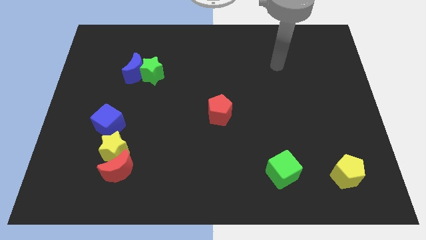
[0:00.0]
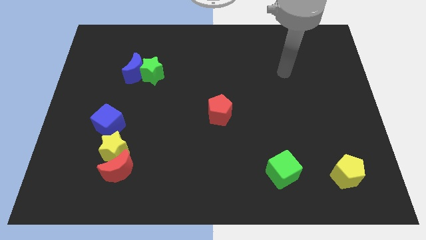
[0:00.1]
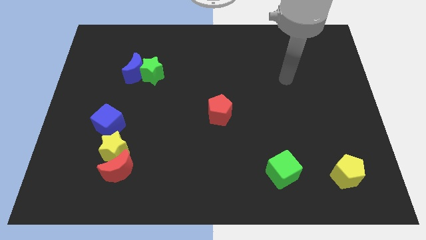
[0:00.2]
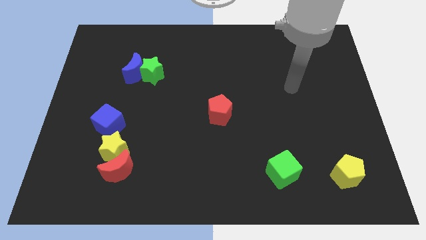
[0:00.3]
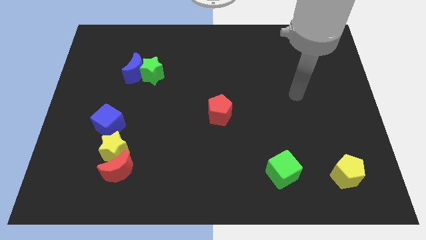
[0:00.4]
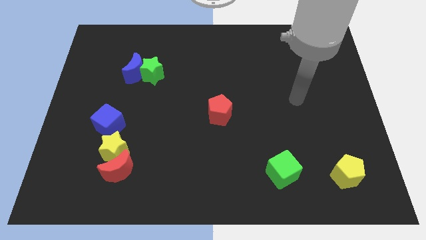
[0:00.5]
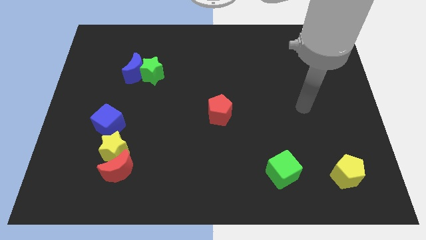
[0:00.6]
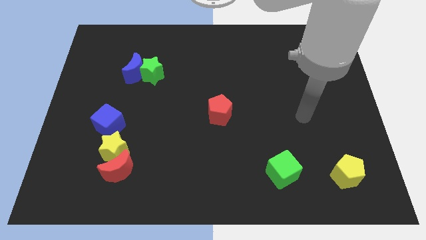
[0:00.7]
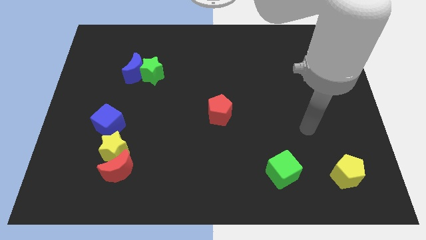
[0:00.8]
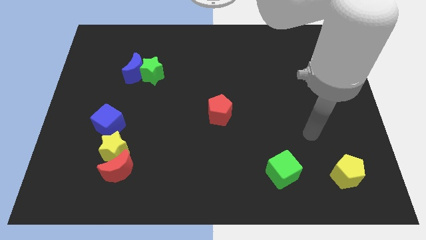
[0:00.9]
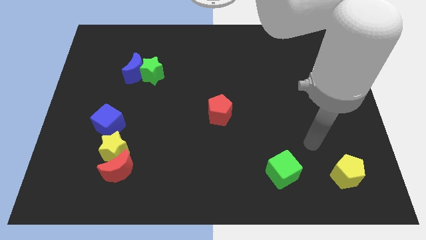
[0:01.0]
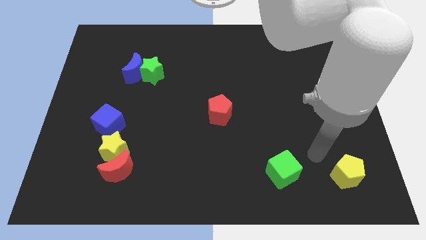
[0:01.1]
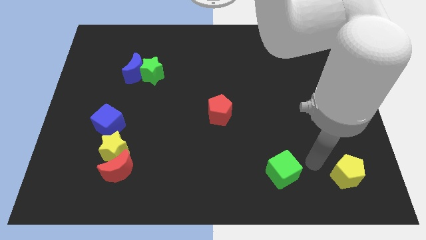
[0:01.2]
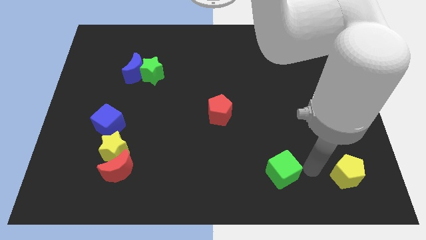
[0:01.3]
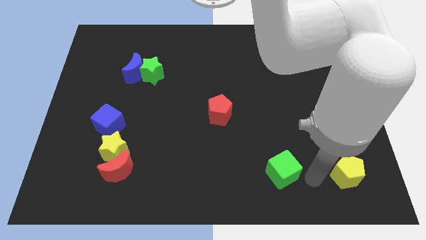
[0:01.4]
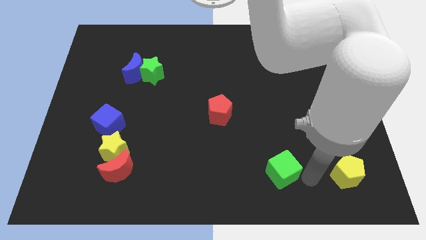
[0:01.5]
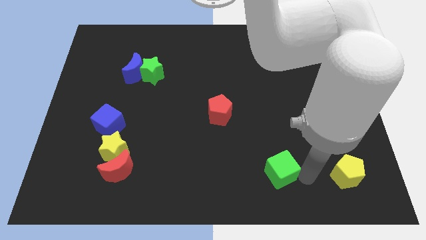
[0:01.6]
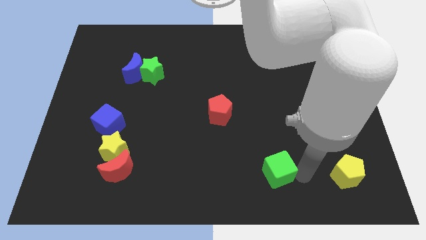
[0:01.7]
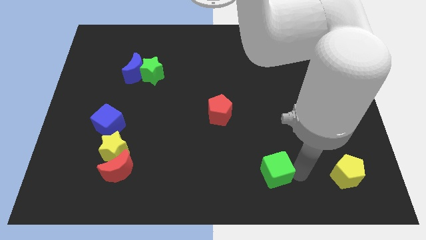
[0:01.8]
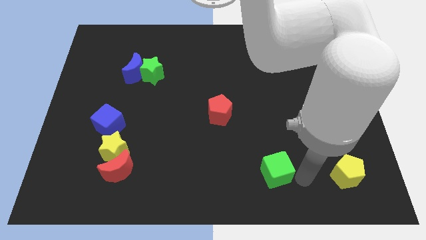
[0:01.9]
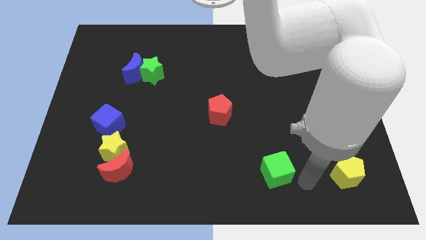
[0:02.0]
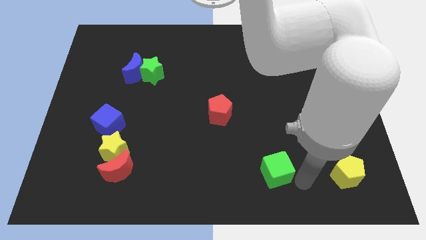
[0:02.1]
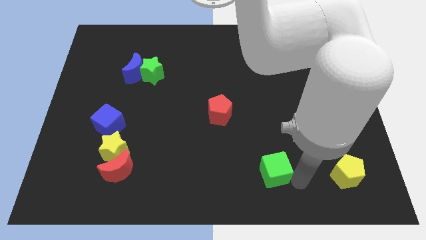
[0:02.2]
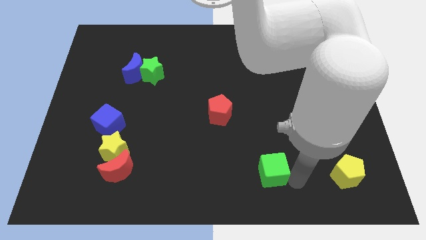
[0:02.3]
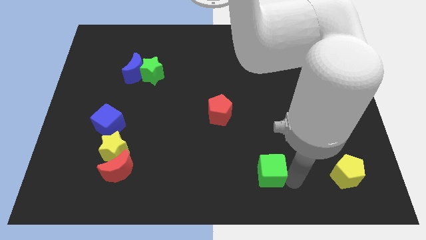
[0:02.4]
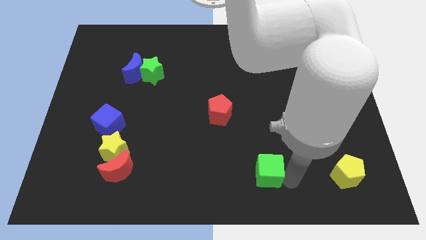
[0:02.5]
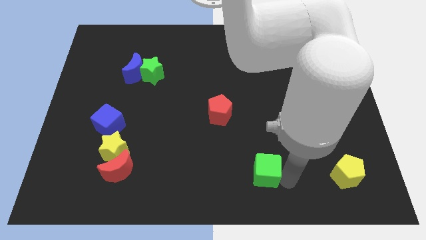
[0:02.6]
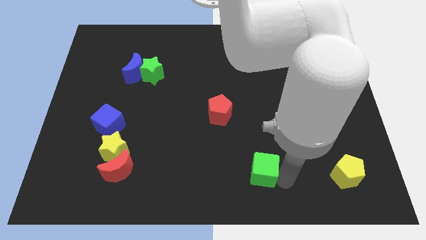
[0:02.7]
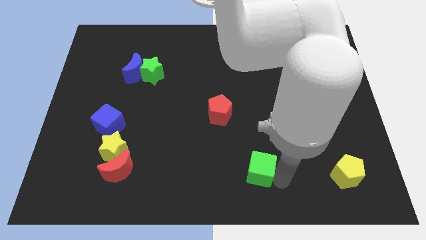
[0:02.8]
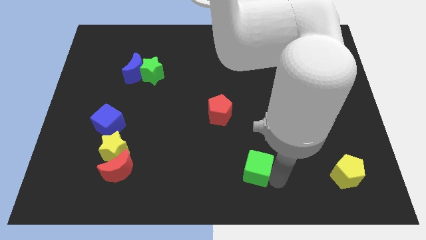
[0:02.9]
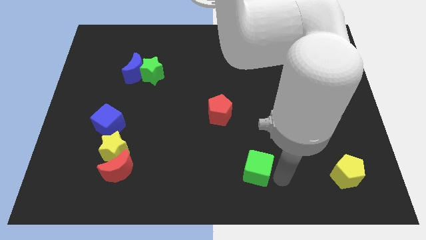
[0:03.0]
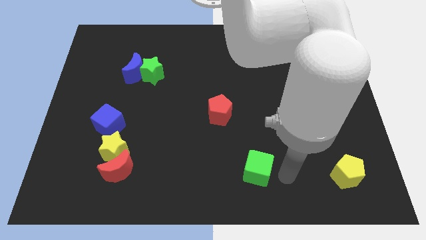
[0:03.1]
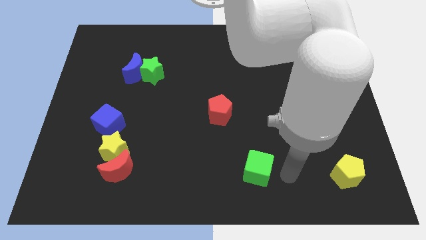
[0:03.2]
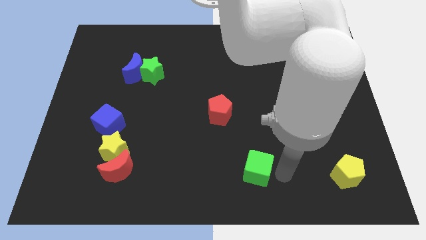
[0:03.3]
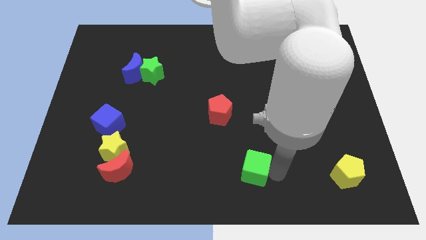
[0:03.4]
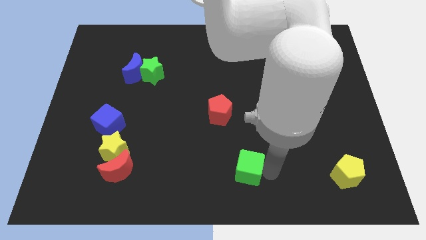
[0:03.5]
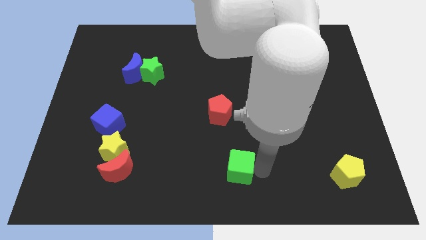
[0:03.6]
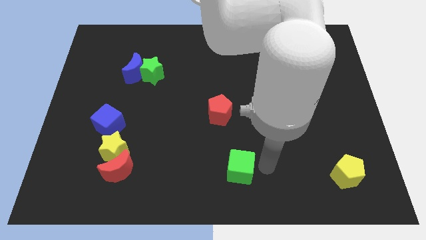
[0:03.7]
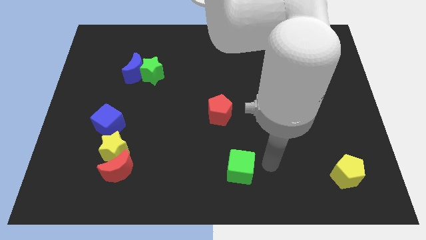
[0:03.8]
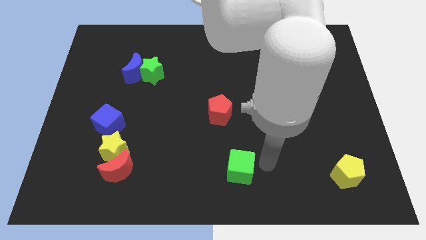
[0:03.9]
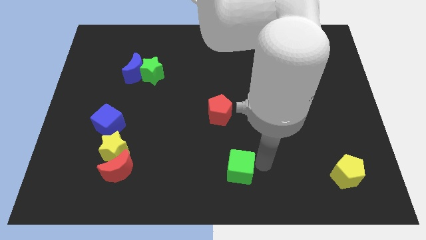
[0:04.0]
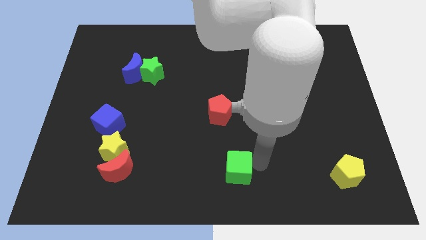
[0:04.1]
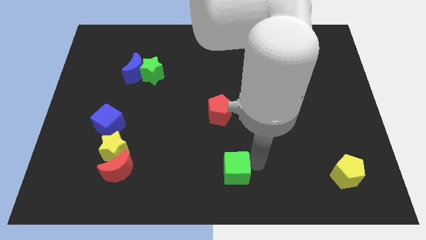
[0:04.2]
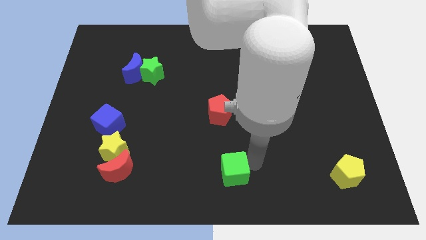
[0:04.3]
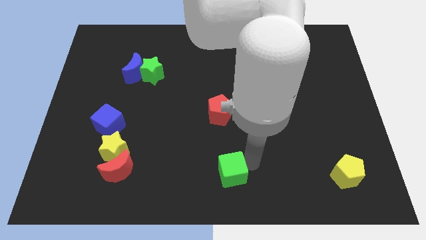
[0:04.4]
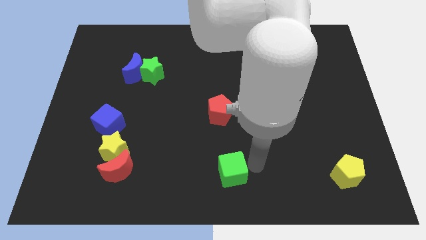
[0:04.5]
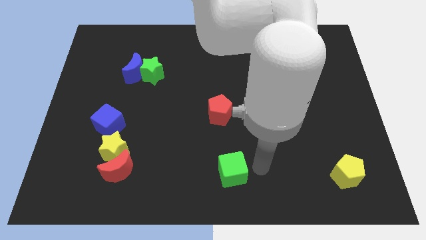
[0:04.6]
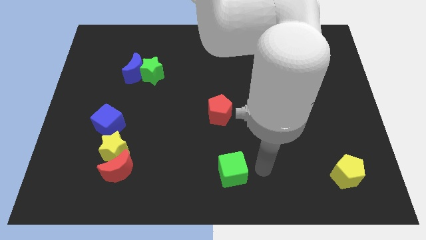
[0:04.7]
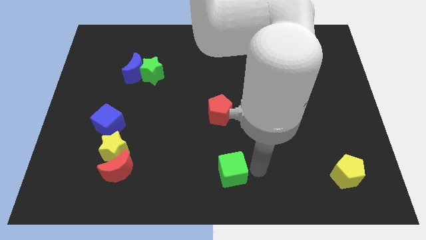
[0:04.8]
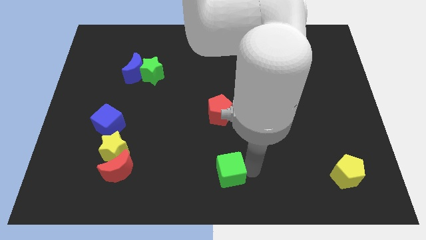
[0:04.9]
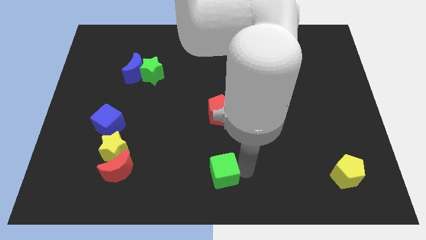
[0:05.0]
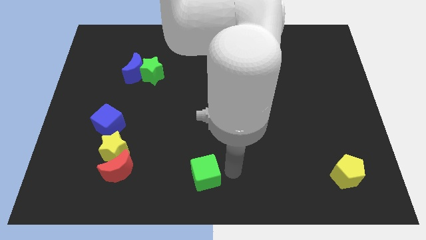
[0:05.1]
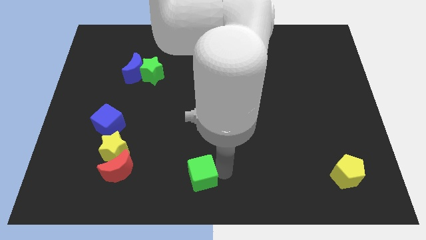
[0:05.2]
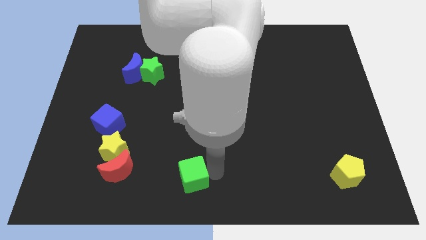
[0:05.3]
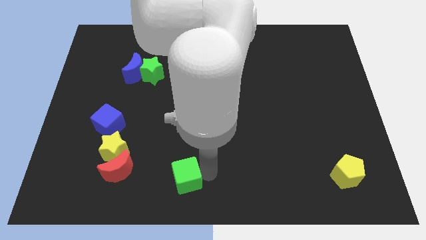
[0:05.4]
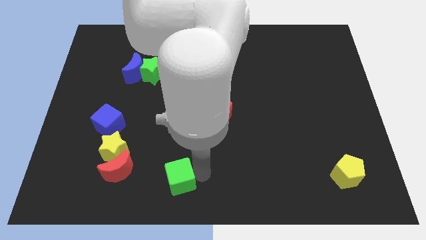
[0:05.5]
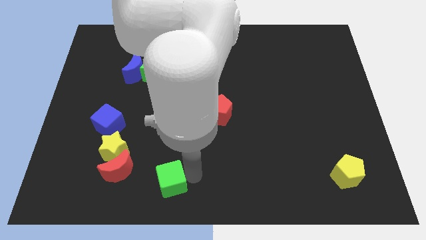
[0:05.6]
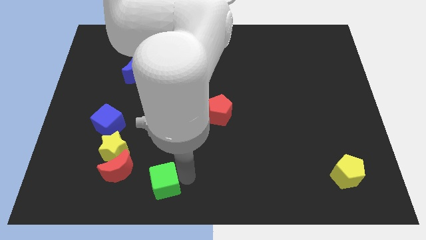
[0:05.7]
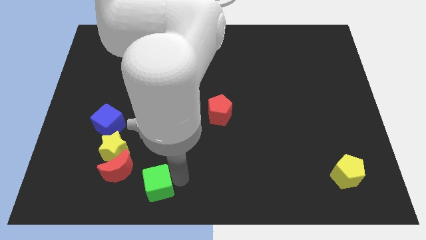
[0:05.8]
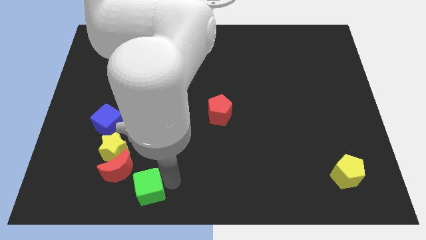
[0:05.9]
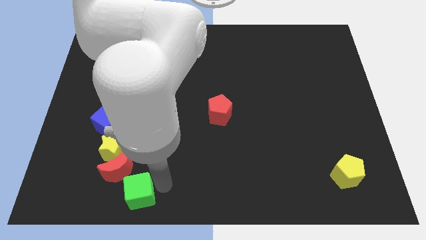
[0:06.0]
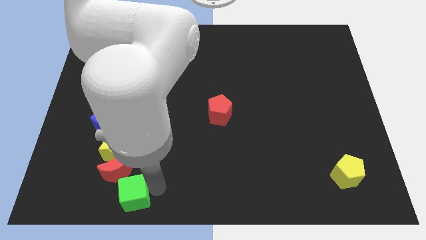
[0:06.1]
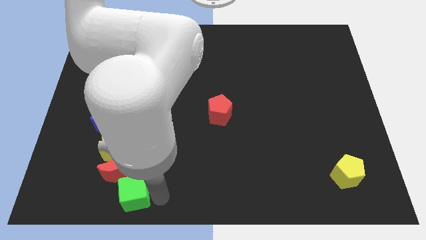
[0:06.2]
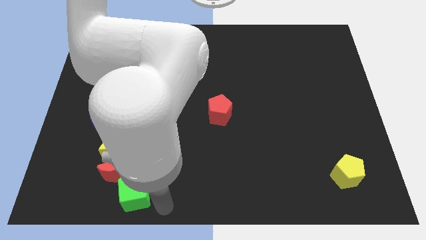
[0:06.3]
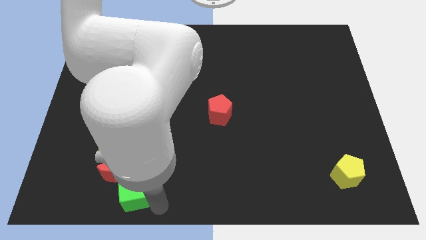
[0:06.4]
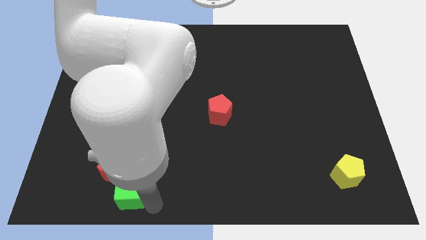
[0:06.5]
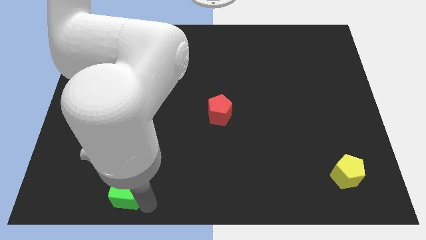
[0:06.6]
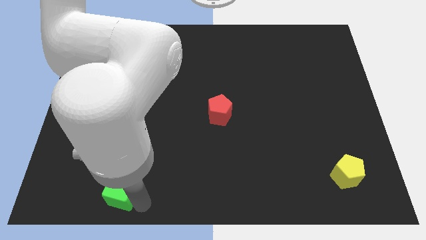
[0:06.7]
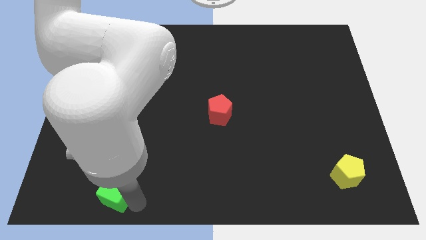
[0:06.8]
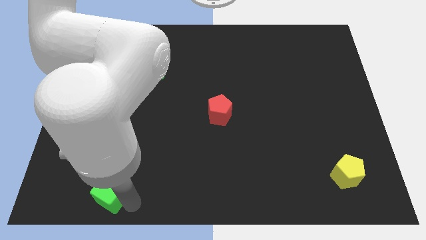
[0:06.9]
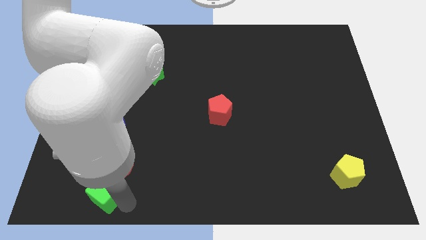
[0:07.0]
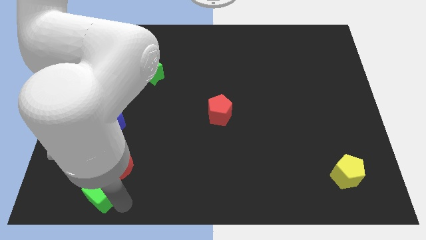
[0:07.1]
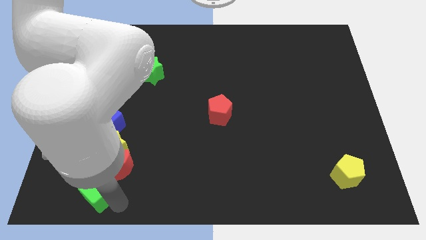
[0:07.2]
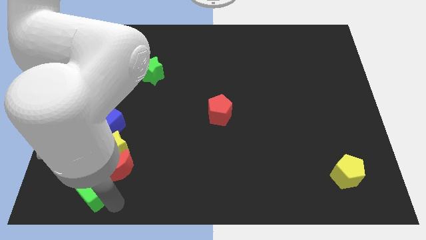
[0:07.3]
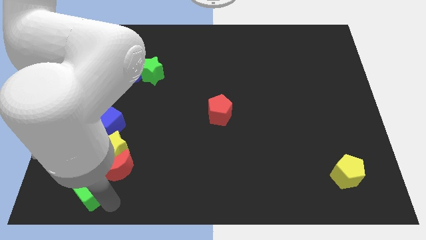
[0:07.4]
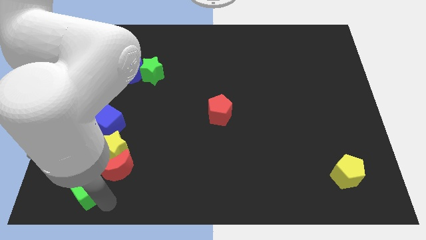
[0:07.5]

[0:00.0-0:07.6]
put the green cube diagonally down and to the left of the yellow star
